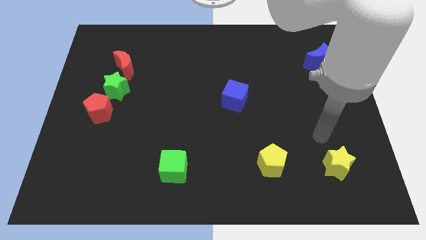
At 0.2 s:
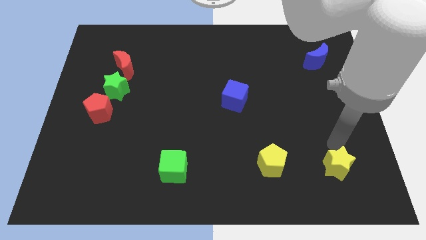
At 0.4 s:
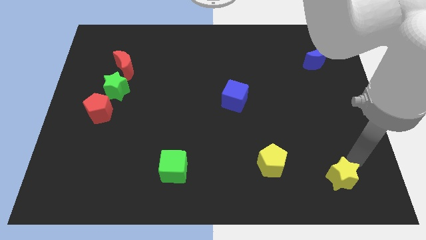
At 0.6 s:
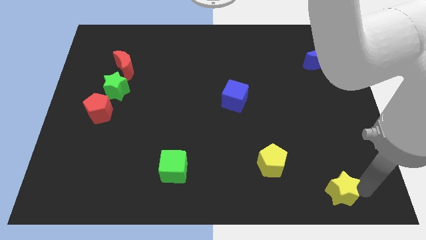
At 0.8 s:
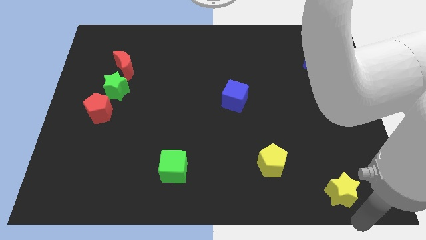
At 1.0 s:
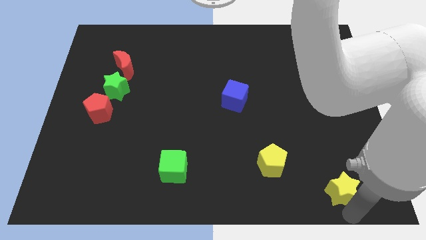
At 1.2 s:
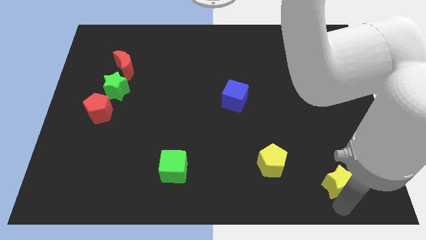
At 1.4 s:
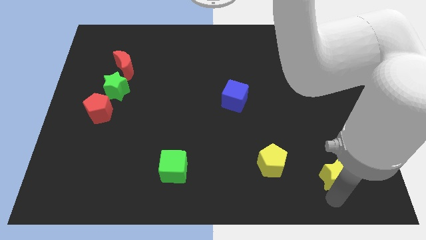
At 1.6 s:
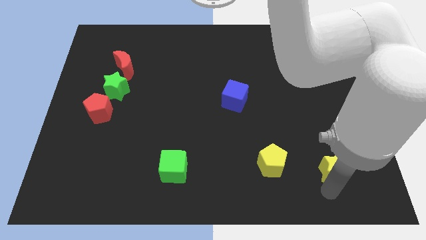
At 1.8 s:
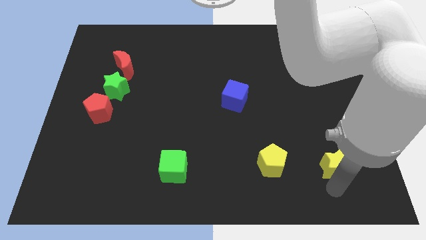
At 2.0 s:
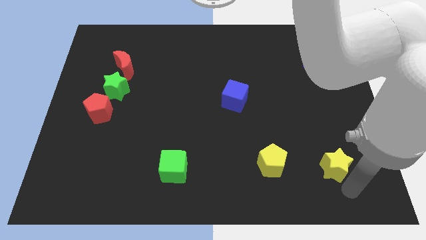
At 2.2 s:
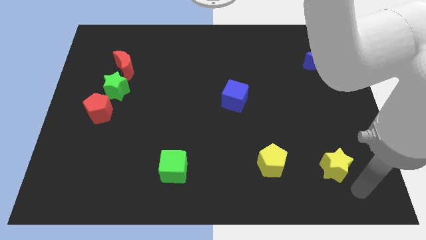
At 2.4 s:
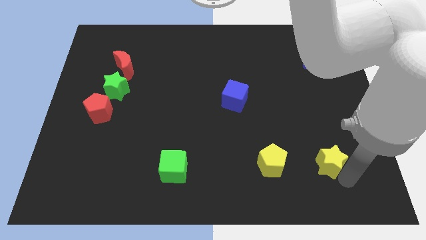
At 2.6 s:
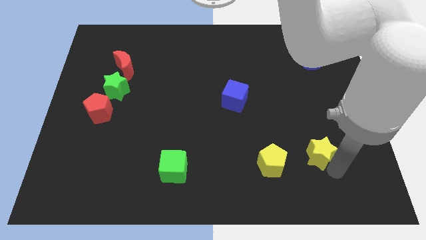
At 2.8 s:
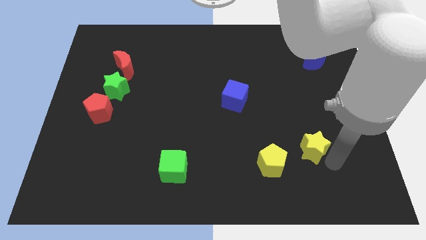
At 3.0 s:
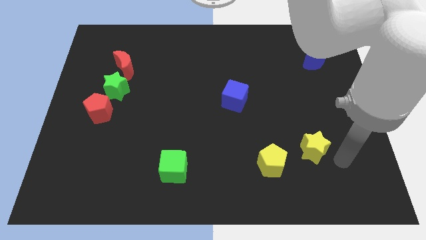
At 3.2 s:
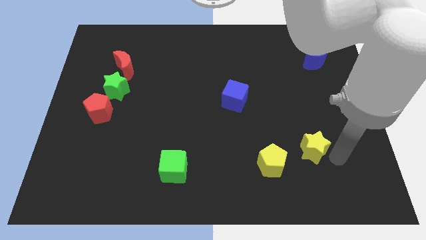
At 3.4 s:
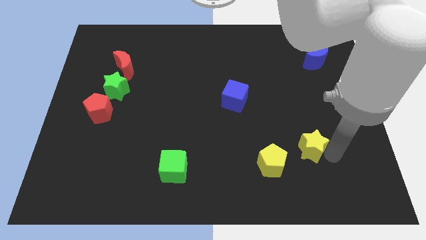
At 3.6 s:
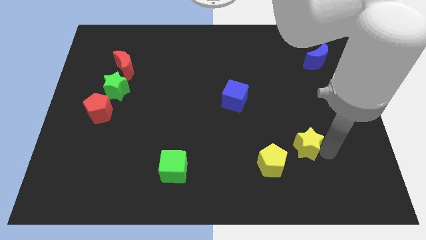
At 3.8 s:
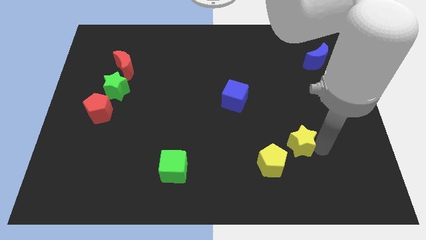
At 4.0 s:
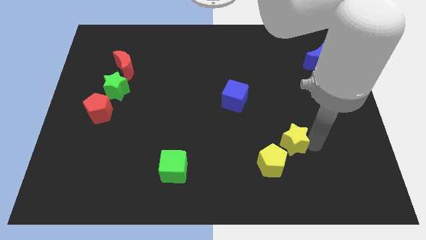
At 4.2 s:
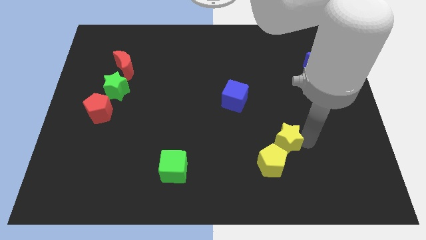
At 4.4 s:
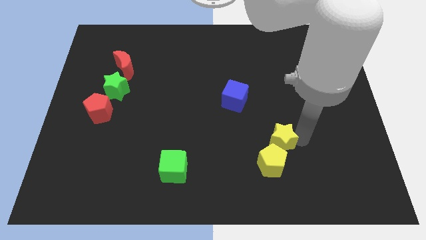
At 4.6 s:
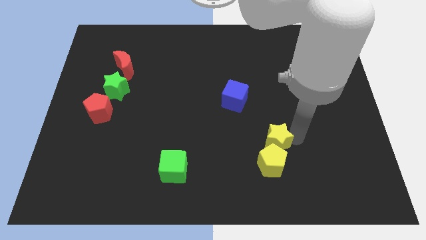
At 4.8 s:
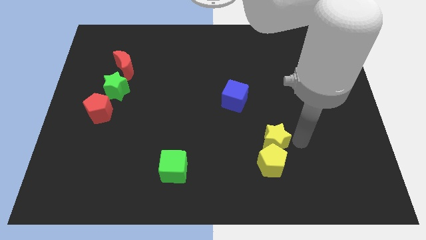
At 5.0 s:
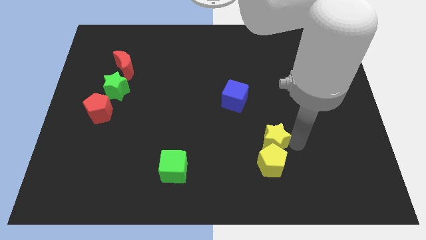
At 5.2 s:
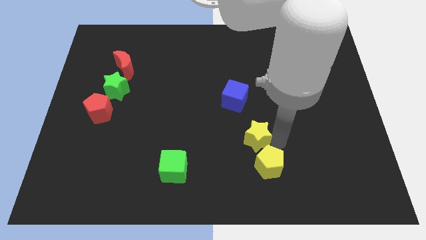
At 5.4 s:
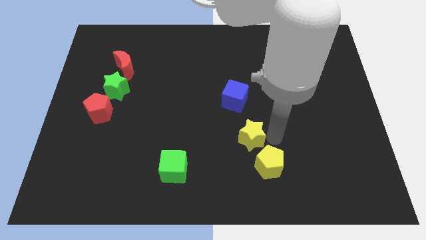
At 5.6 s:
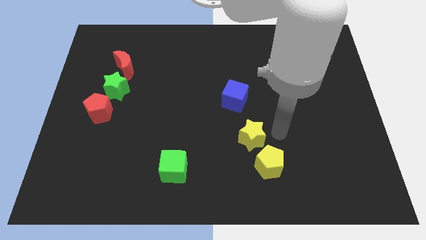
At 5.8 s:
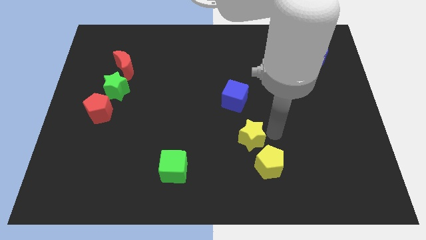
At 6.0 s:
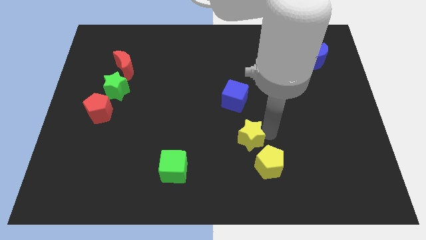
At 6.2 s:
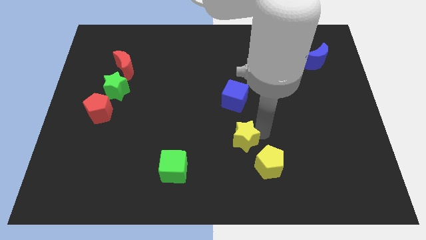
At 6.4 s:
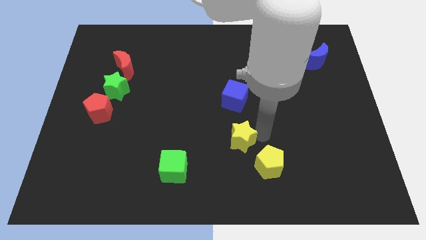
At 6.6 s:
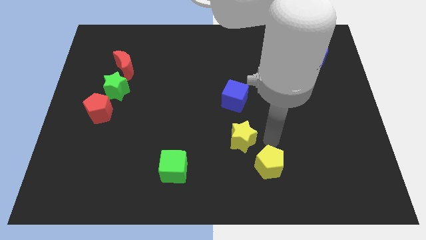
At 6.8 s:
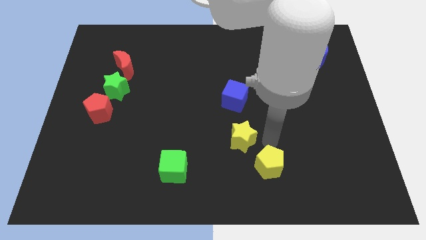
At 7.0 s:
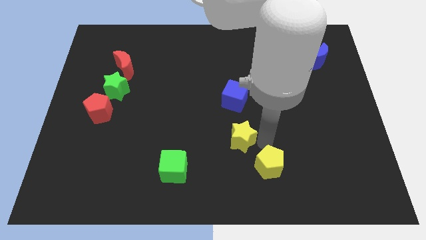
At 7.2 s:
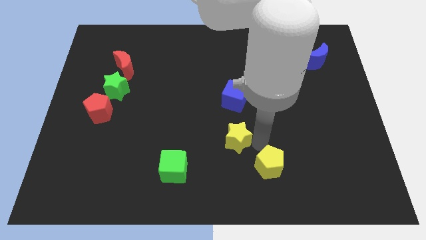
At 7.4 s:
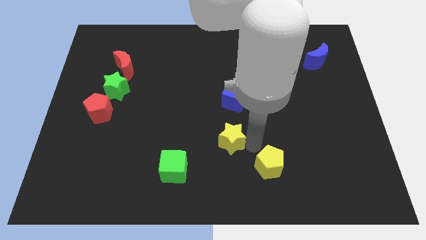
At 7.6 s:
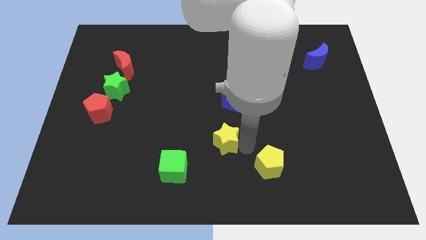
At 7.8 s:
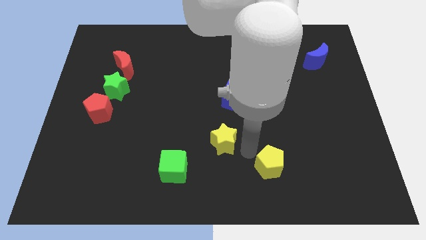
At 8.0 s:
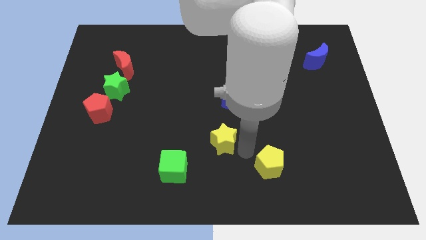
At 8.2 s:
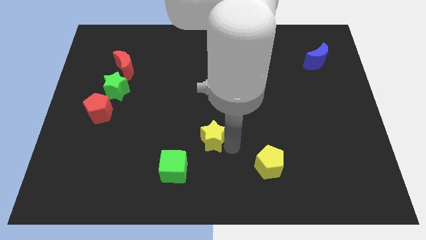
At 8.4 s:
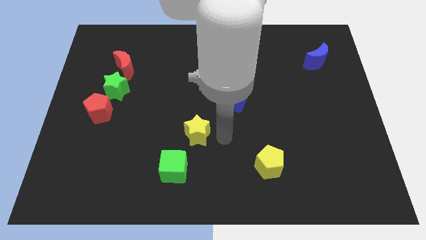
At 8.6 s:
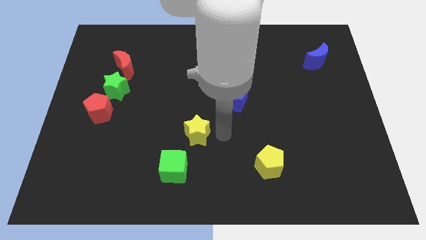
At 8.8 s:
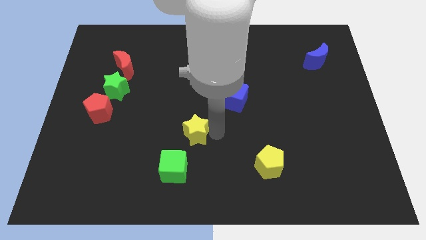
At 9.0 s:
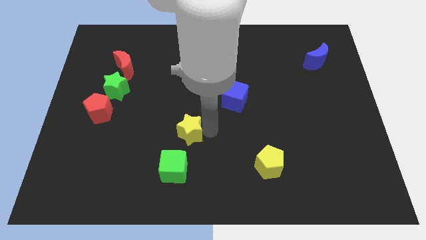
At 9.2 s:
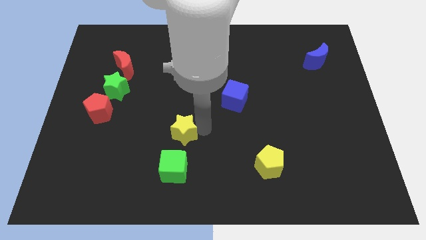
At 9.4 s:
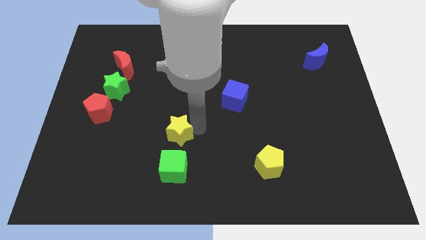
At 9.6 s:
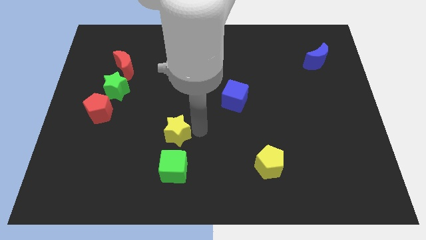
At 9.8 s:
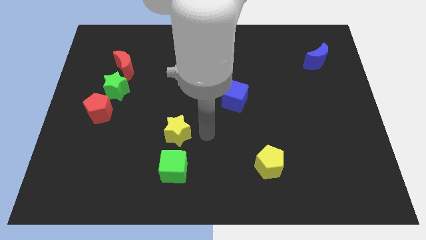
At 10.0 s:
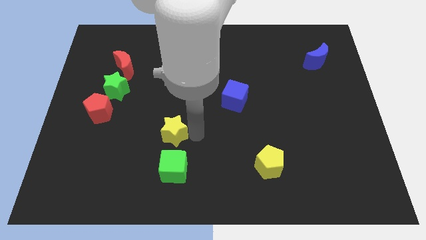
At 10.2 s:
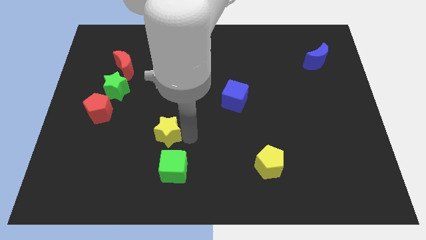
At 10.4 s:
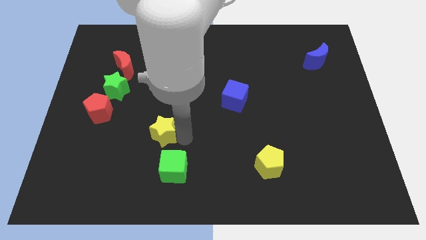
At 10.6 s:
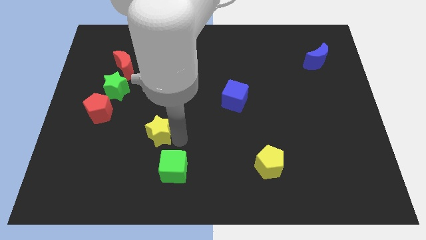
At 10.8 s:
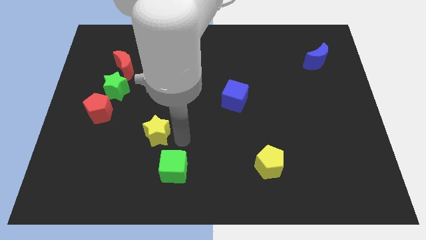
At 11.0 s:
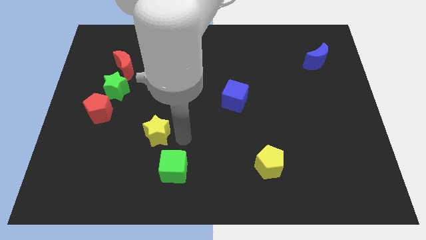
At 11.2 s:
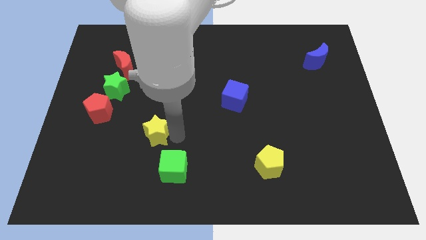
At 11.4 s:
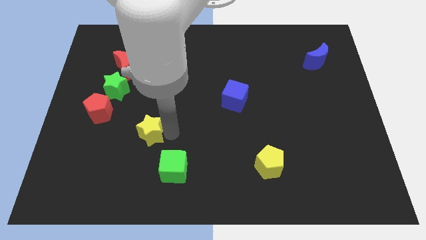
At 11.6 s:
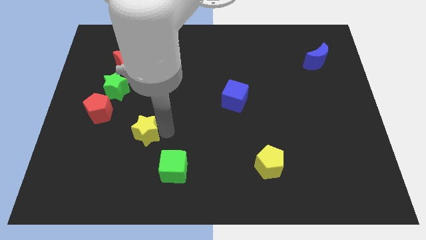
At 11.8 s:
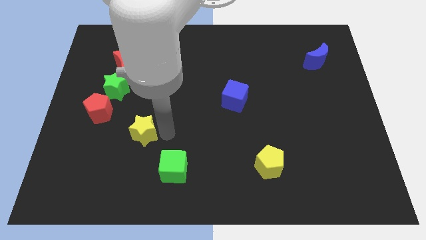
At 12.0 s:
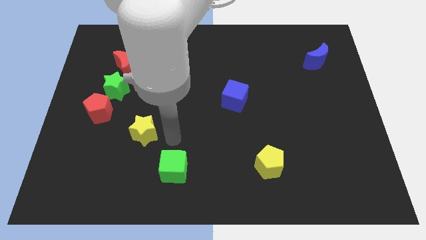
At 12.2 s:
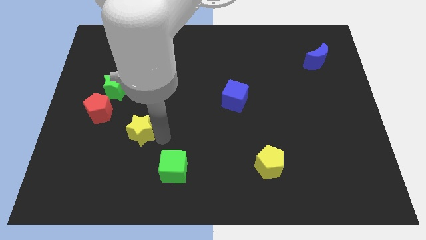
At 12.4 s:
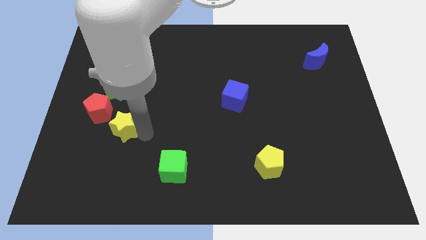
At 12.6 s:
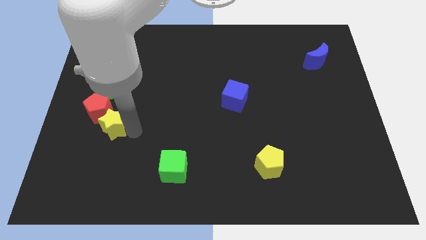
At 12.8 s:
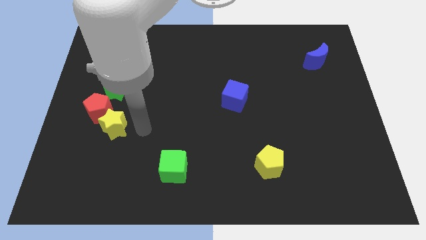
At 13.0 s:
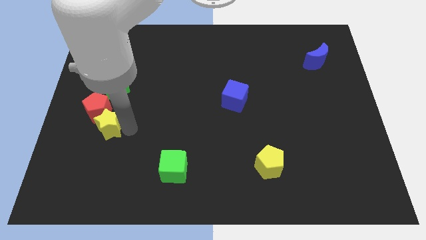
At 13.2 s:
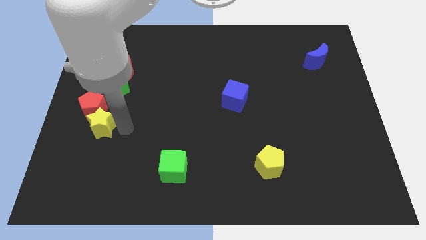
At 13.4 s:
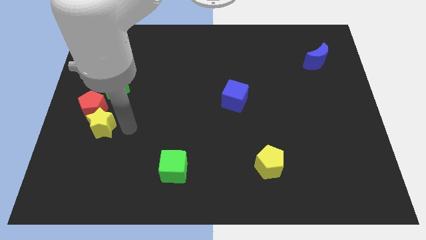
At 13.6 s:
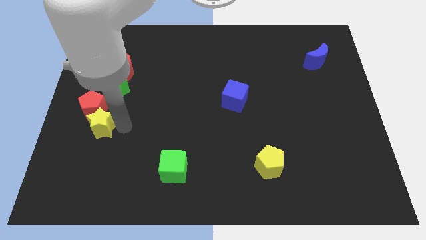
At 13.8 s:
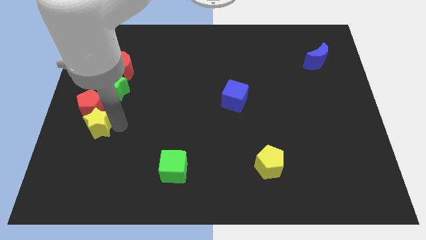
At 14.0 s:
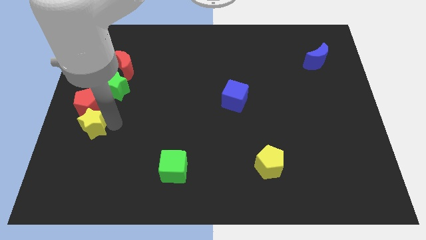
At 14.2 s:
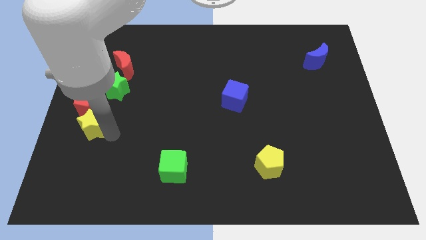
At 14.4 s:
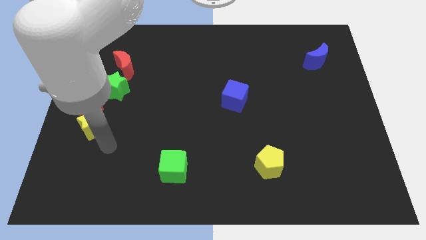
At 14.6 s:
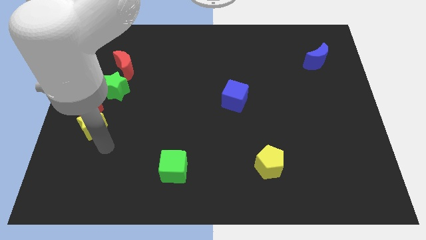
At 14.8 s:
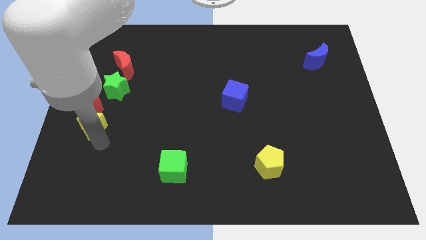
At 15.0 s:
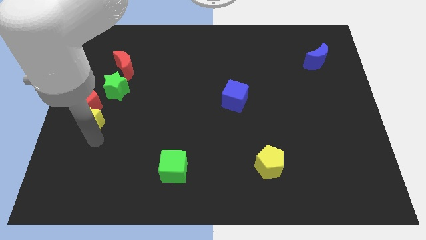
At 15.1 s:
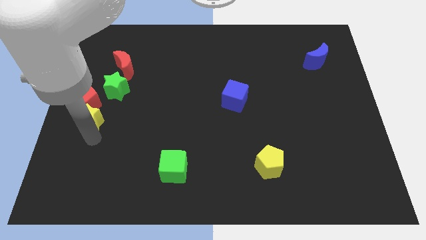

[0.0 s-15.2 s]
put the yellow star diagonally down and to the left of the green star
